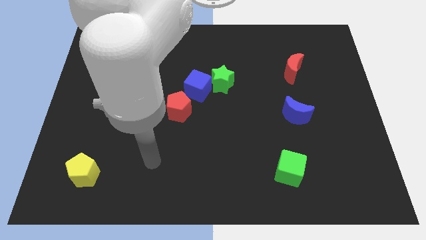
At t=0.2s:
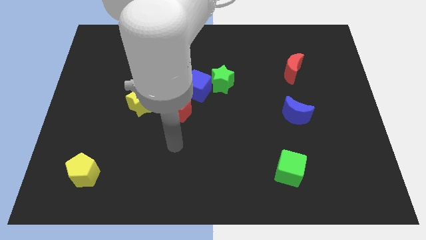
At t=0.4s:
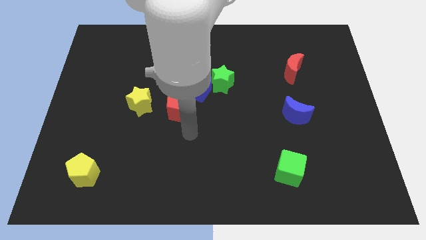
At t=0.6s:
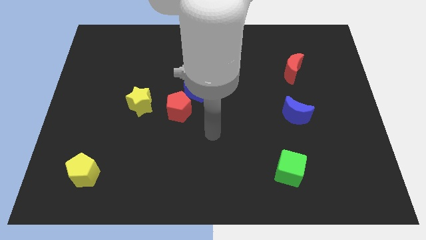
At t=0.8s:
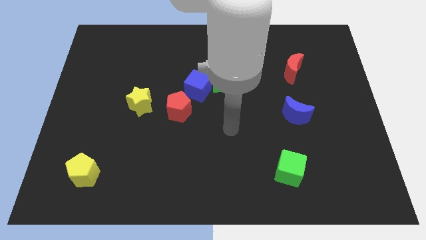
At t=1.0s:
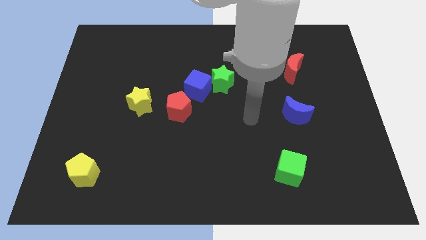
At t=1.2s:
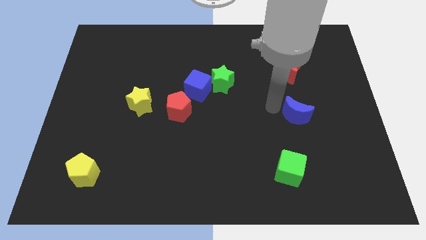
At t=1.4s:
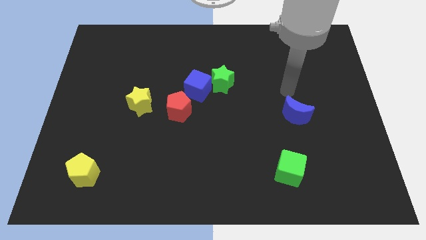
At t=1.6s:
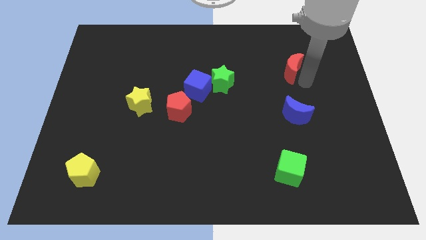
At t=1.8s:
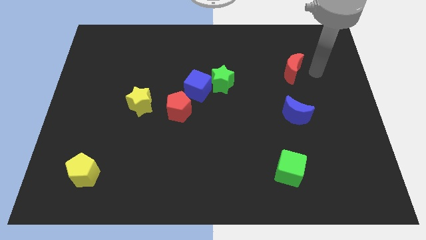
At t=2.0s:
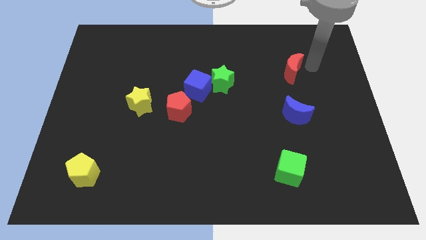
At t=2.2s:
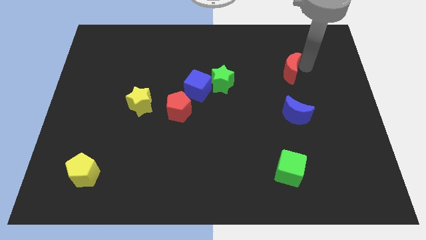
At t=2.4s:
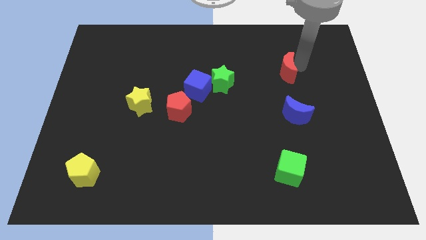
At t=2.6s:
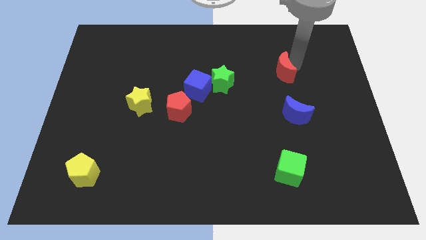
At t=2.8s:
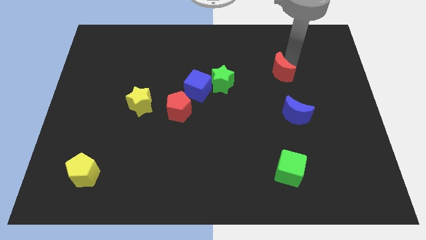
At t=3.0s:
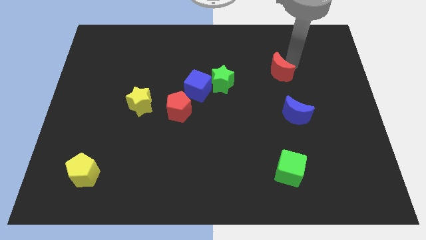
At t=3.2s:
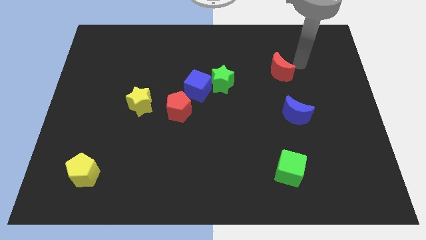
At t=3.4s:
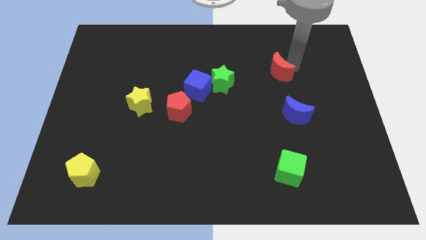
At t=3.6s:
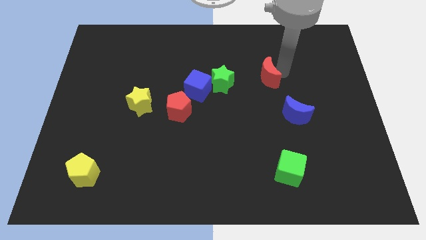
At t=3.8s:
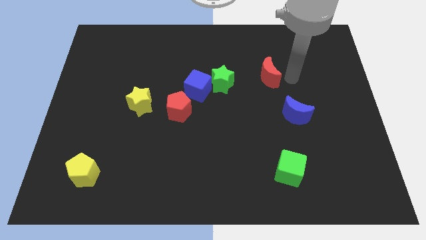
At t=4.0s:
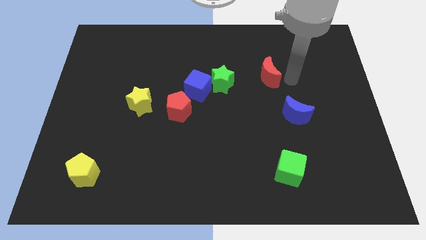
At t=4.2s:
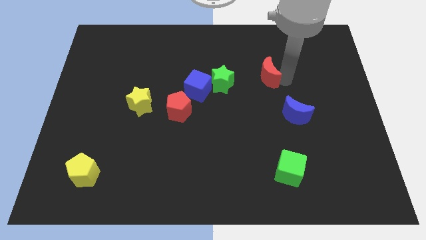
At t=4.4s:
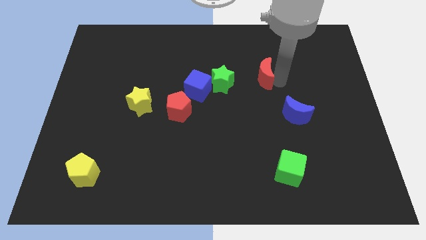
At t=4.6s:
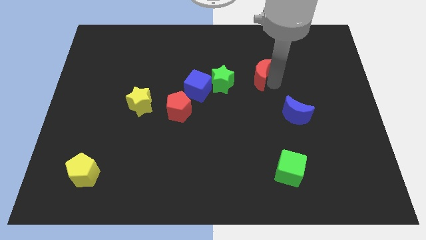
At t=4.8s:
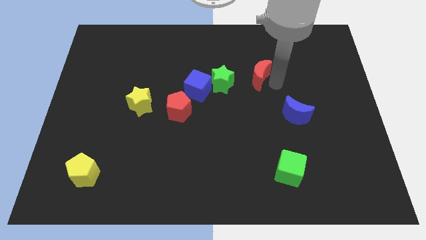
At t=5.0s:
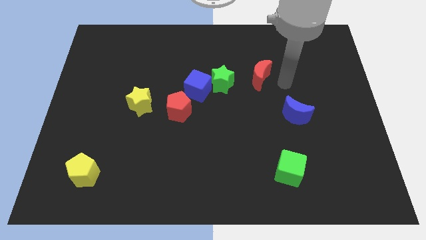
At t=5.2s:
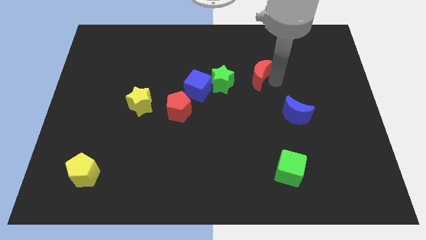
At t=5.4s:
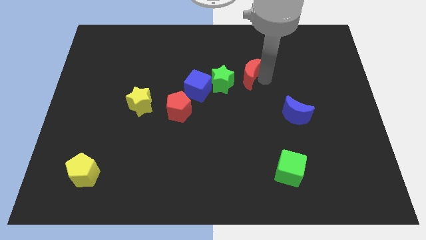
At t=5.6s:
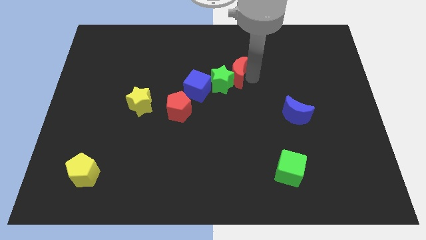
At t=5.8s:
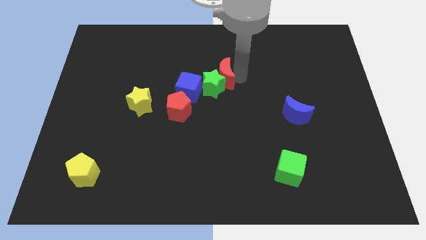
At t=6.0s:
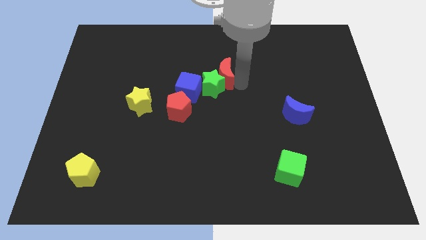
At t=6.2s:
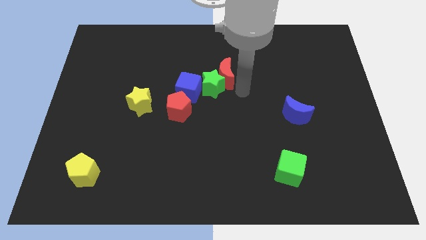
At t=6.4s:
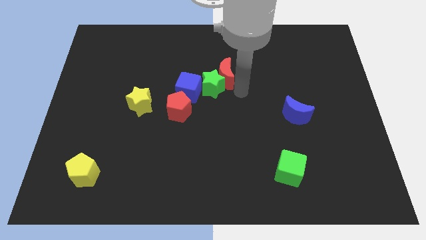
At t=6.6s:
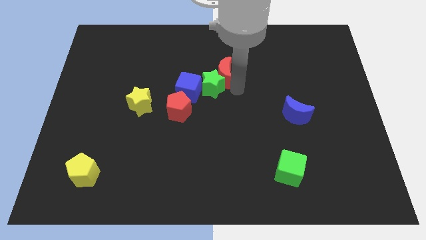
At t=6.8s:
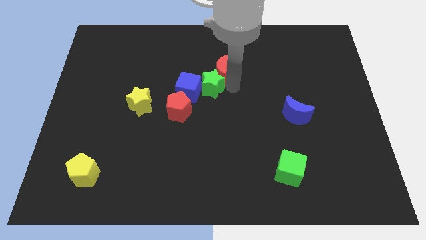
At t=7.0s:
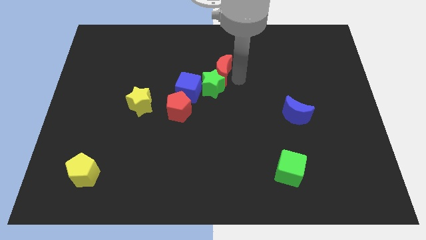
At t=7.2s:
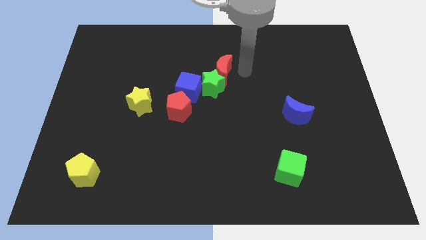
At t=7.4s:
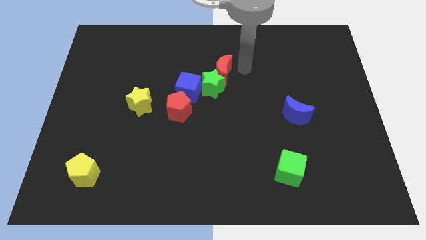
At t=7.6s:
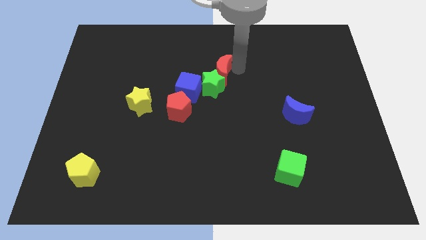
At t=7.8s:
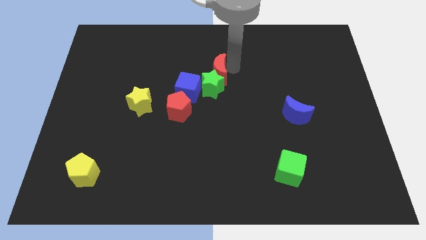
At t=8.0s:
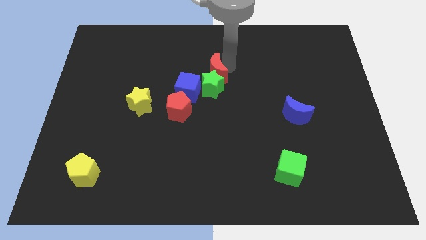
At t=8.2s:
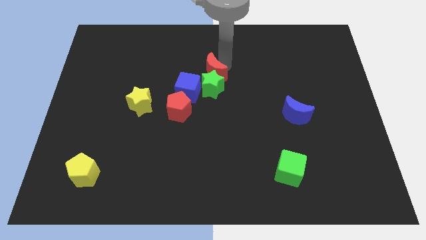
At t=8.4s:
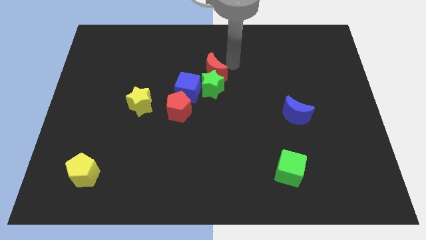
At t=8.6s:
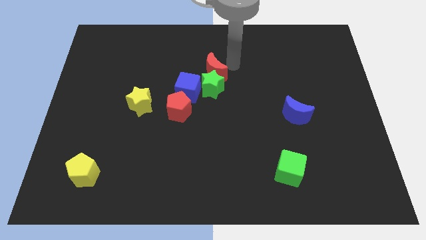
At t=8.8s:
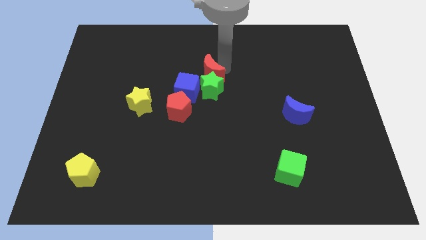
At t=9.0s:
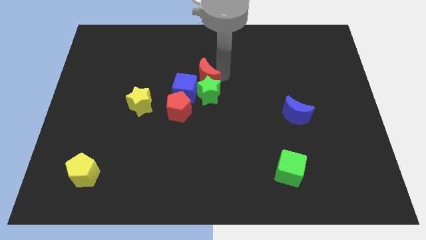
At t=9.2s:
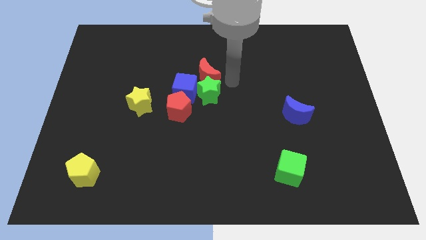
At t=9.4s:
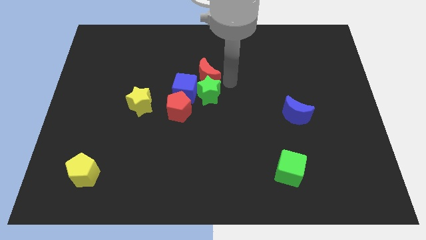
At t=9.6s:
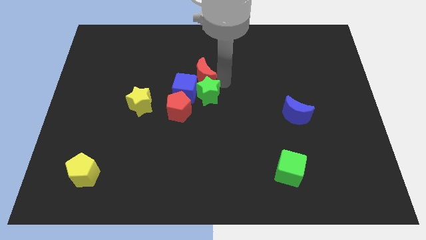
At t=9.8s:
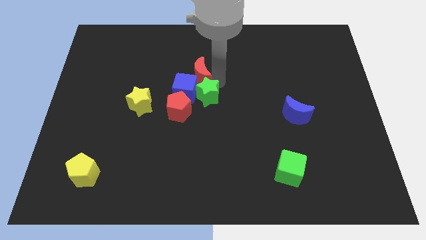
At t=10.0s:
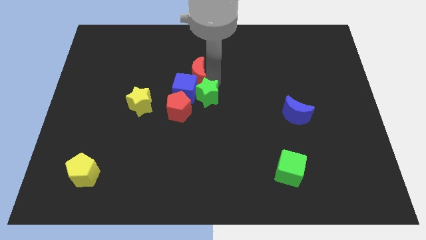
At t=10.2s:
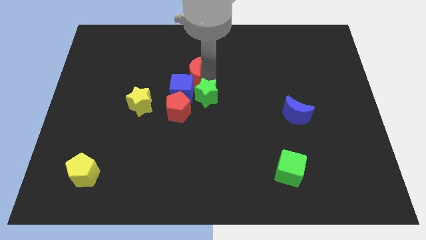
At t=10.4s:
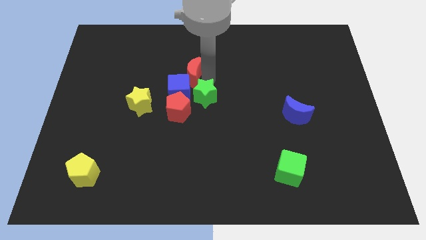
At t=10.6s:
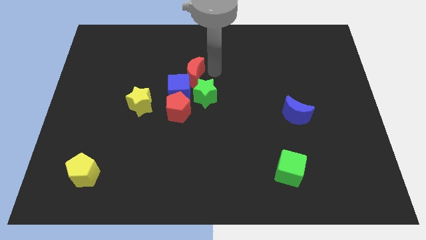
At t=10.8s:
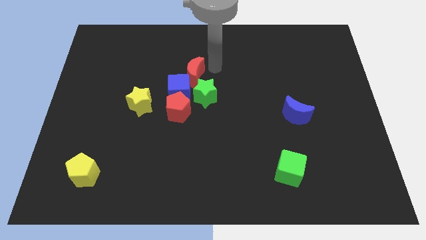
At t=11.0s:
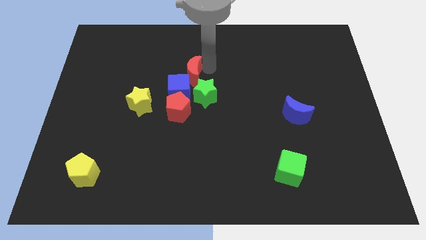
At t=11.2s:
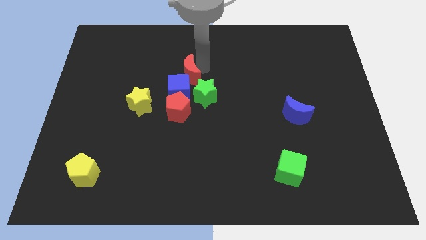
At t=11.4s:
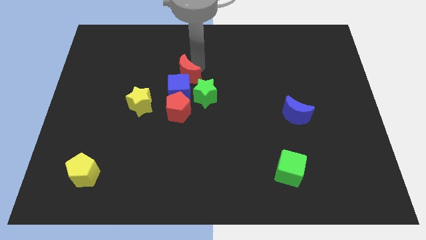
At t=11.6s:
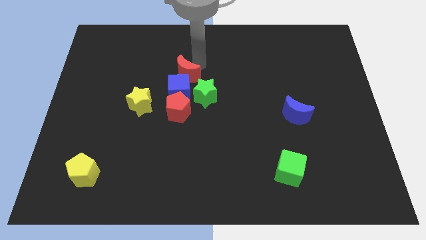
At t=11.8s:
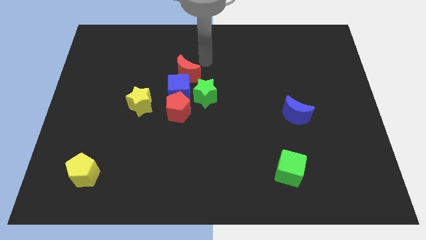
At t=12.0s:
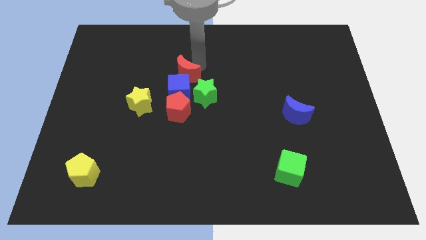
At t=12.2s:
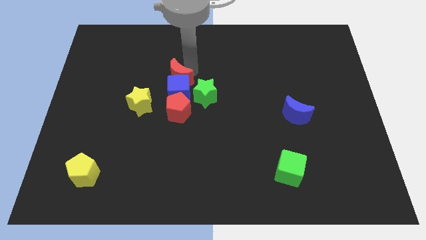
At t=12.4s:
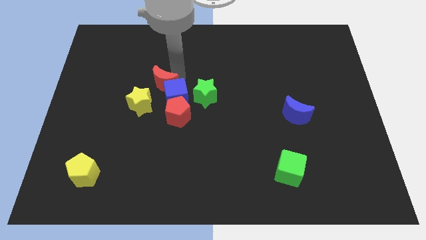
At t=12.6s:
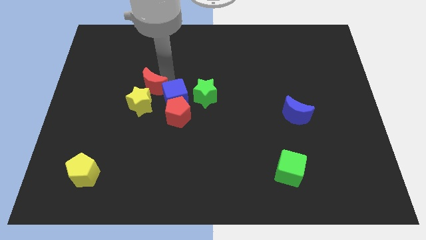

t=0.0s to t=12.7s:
slide the red moon to the yellow star
